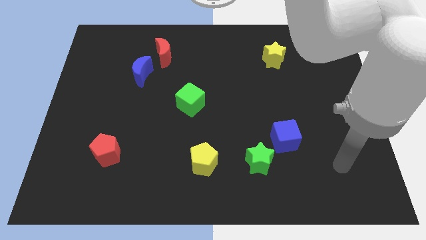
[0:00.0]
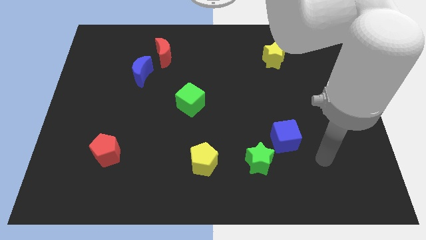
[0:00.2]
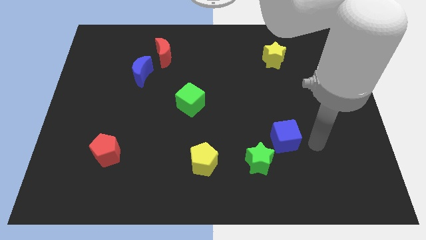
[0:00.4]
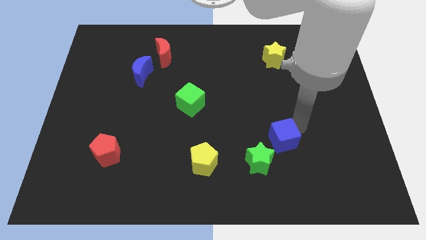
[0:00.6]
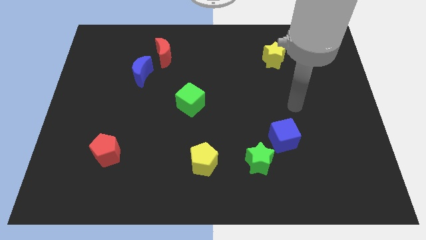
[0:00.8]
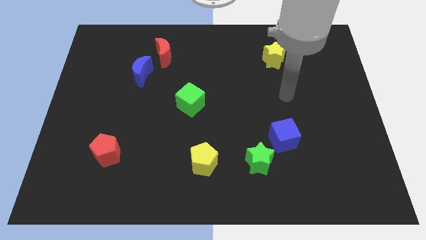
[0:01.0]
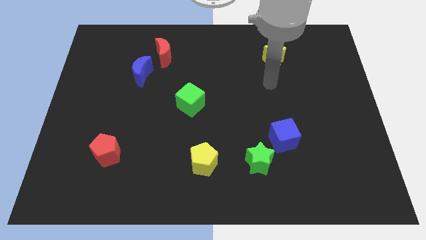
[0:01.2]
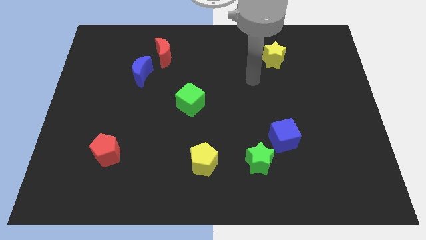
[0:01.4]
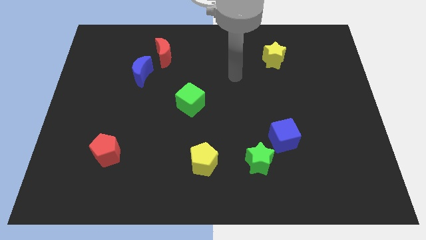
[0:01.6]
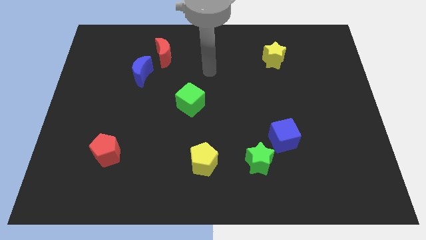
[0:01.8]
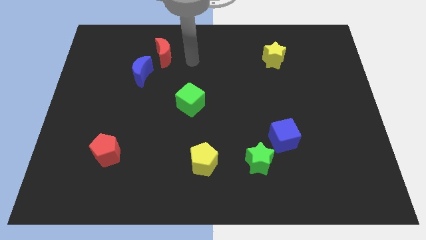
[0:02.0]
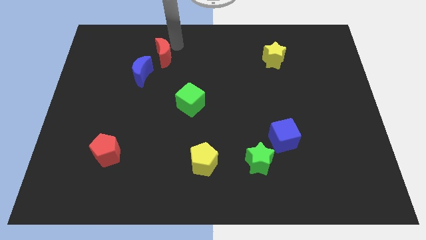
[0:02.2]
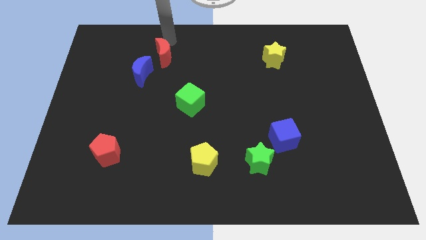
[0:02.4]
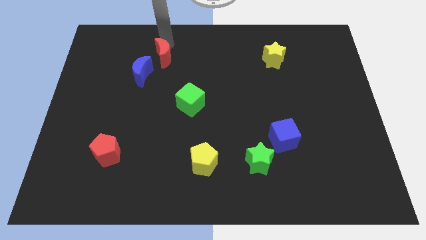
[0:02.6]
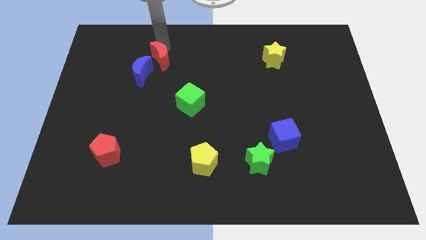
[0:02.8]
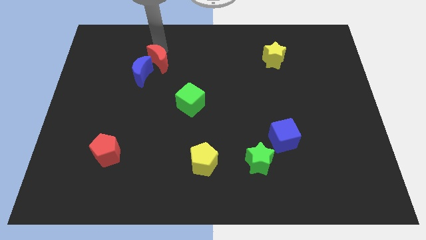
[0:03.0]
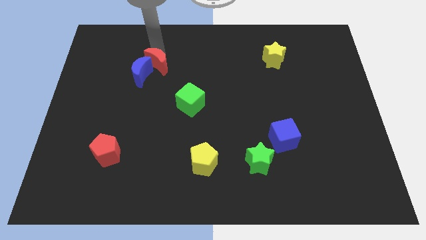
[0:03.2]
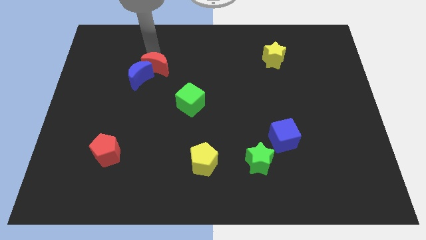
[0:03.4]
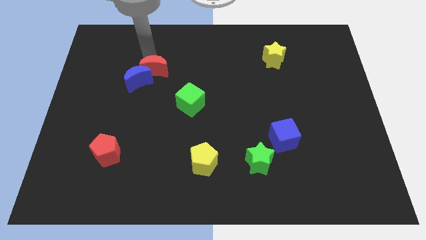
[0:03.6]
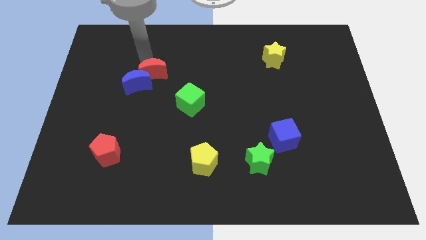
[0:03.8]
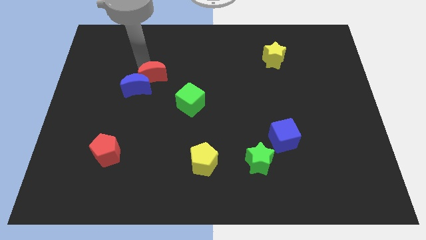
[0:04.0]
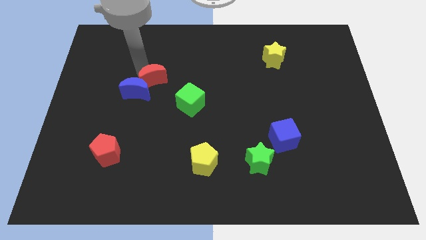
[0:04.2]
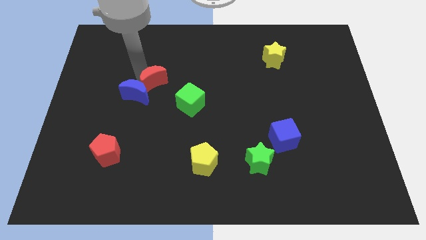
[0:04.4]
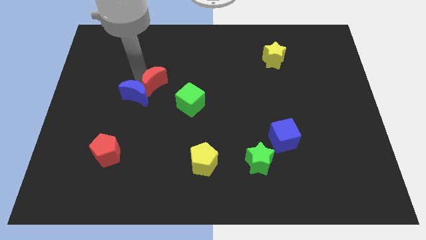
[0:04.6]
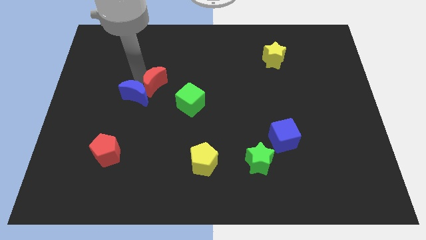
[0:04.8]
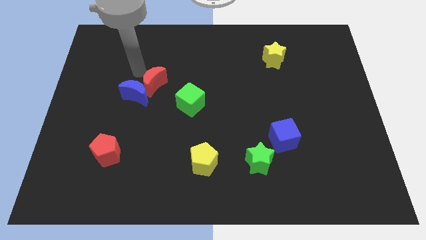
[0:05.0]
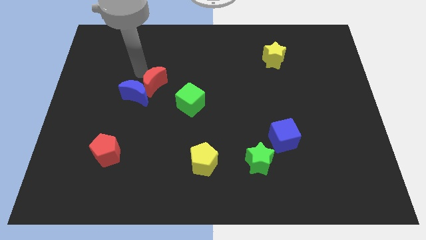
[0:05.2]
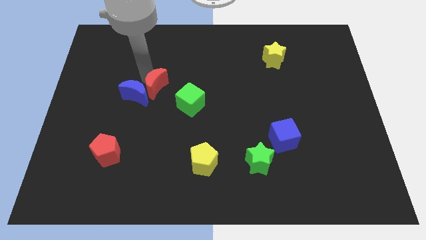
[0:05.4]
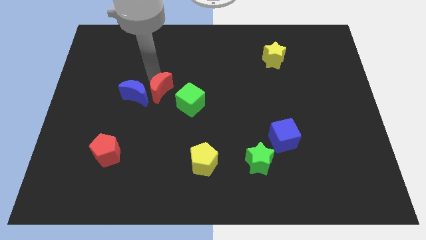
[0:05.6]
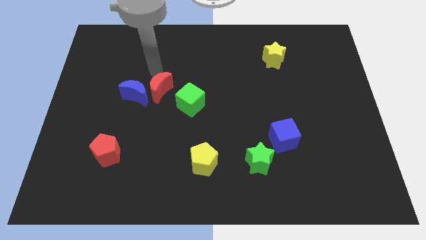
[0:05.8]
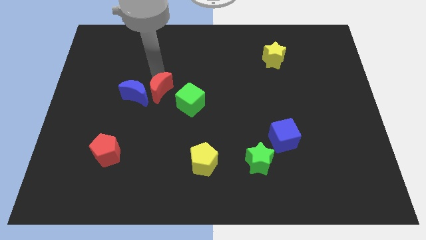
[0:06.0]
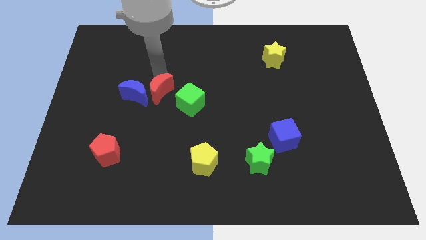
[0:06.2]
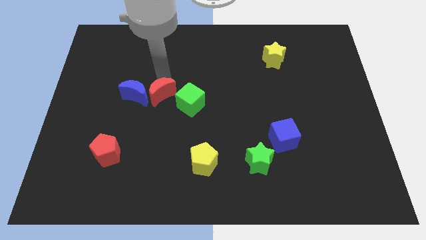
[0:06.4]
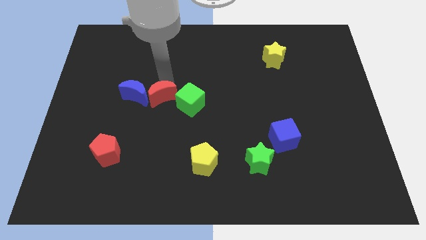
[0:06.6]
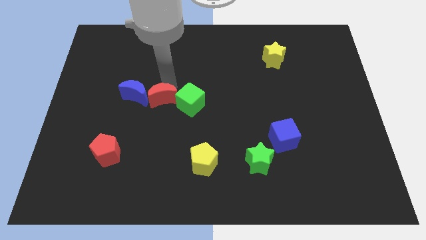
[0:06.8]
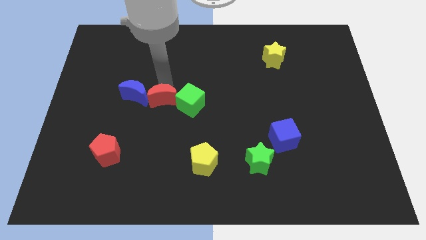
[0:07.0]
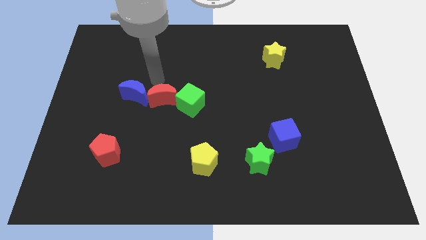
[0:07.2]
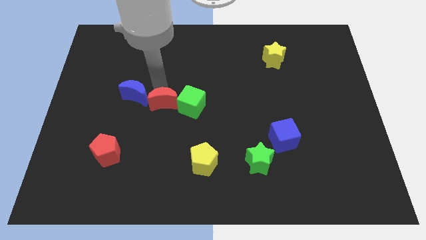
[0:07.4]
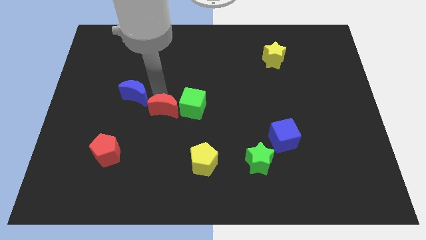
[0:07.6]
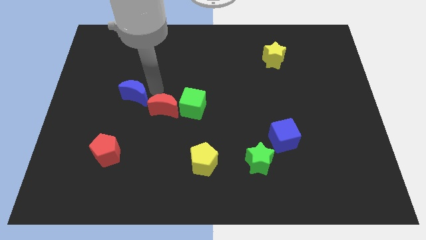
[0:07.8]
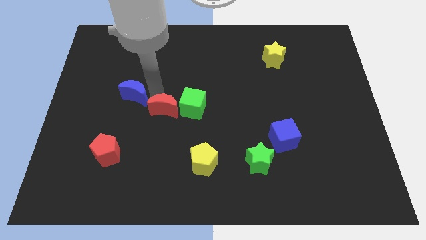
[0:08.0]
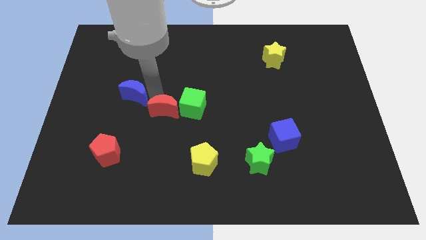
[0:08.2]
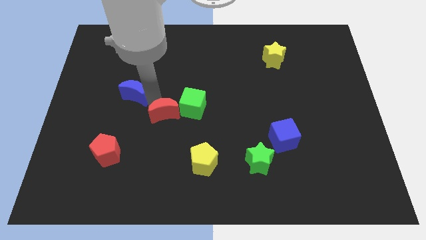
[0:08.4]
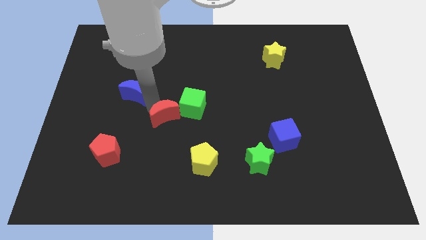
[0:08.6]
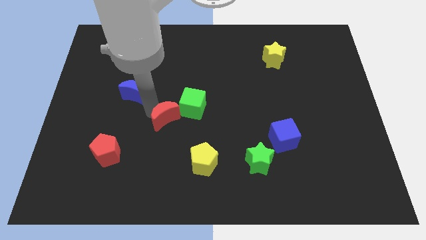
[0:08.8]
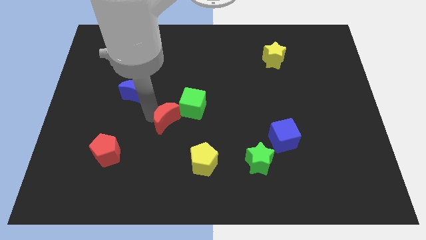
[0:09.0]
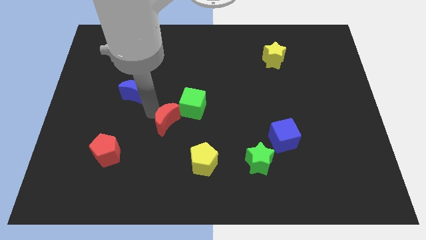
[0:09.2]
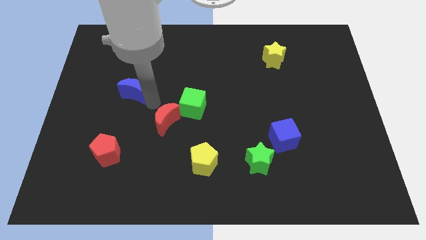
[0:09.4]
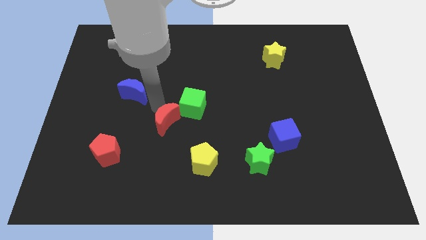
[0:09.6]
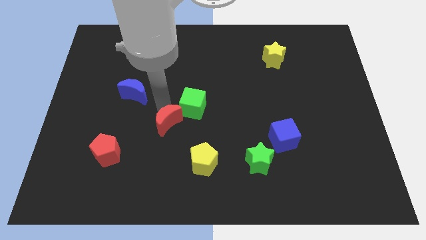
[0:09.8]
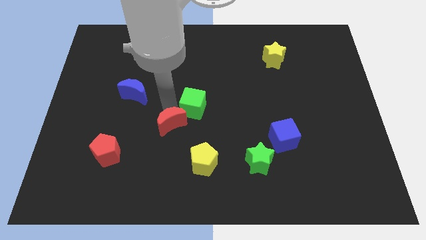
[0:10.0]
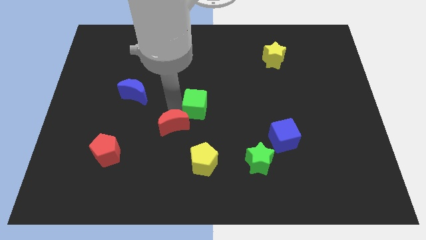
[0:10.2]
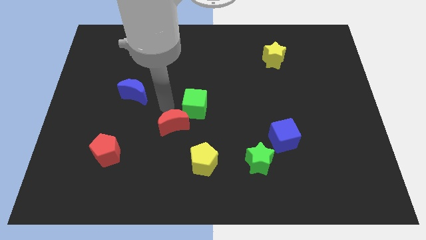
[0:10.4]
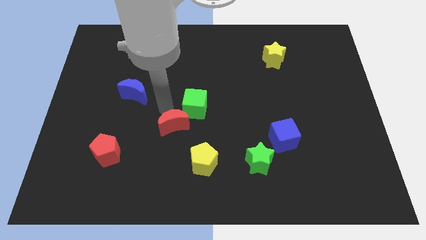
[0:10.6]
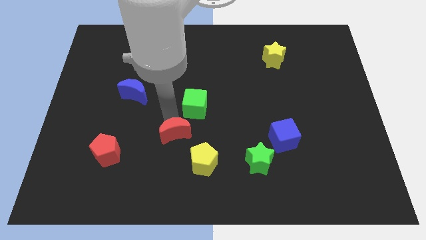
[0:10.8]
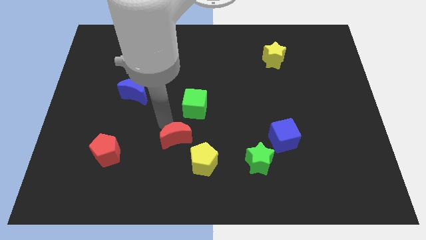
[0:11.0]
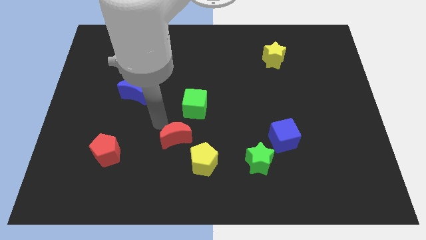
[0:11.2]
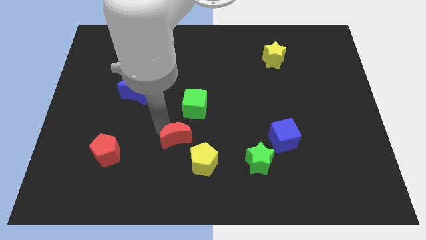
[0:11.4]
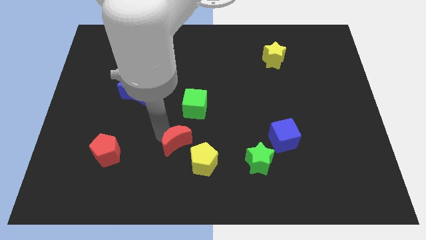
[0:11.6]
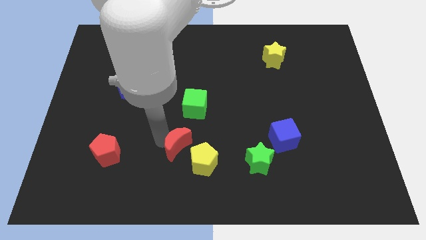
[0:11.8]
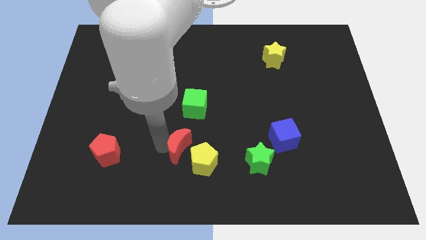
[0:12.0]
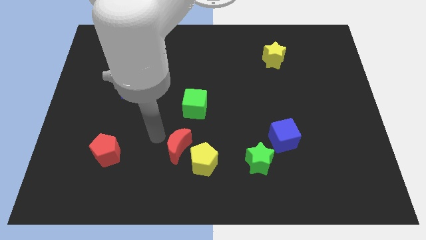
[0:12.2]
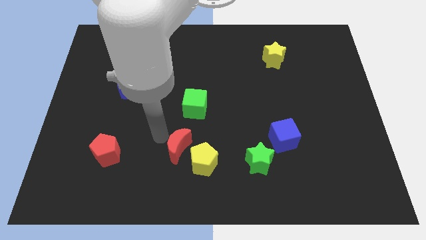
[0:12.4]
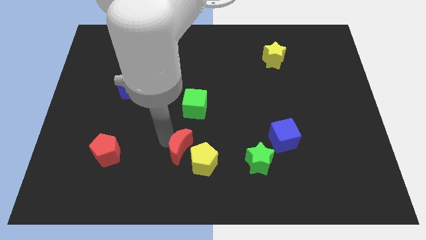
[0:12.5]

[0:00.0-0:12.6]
put the red moon close to the yellow pentagon

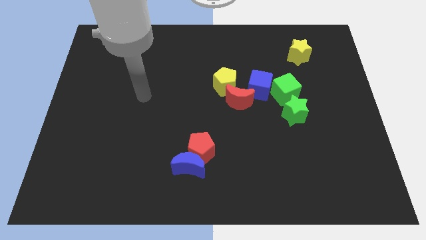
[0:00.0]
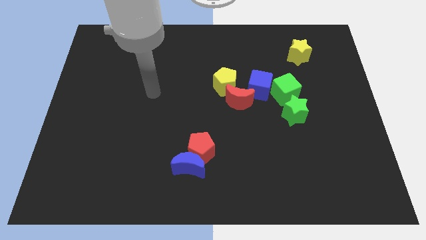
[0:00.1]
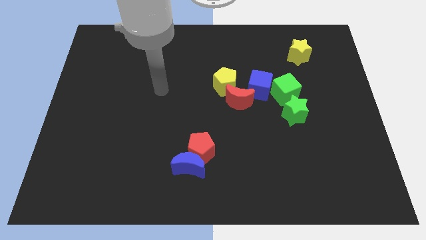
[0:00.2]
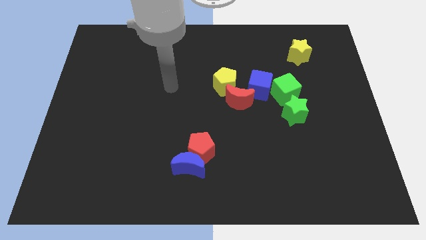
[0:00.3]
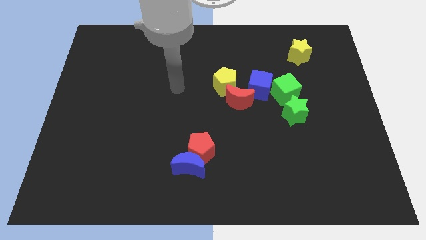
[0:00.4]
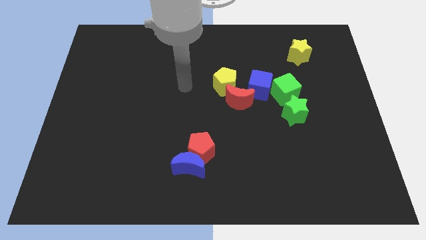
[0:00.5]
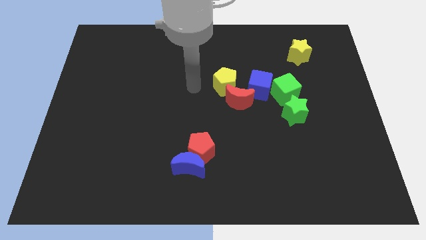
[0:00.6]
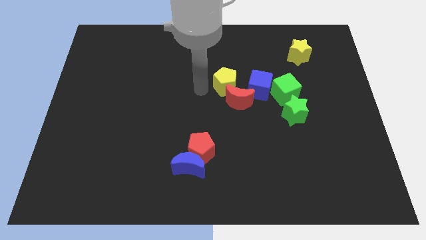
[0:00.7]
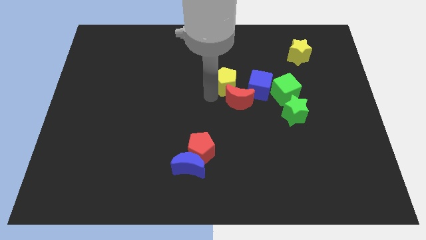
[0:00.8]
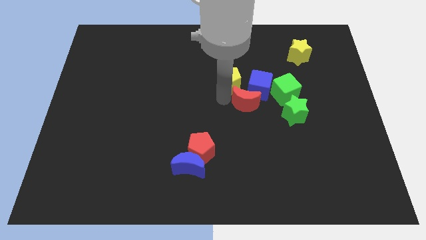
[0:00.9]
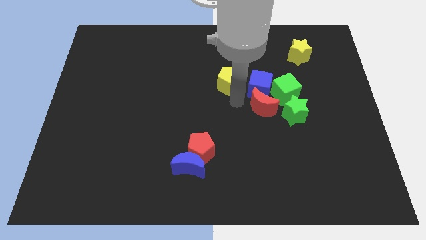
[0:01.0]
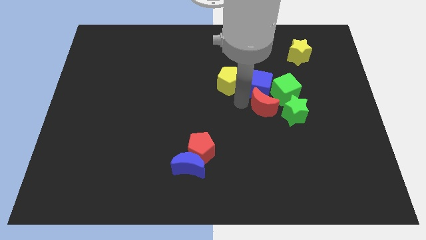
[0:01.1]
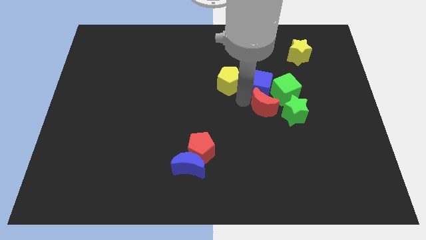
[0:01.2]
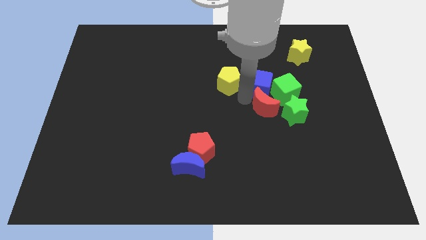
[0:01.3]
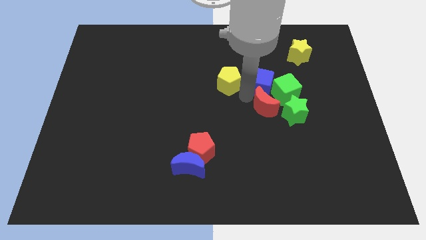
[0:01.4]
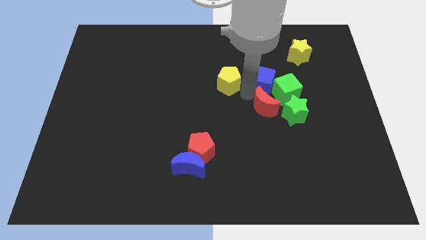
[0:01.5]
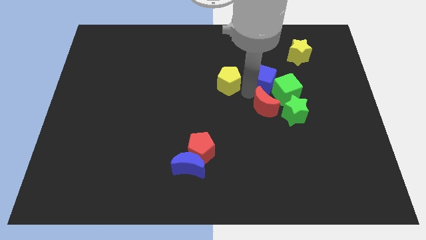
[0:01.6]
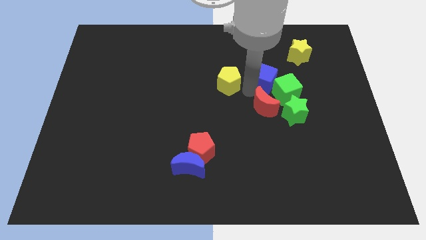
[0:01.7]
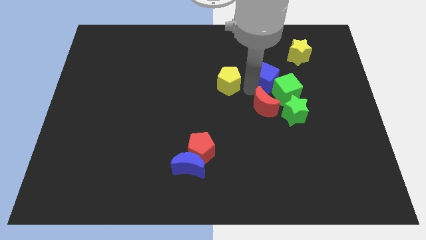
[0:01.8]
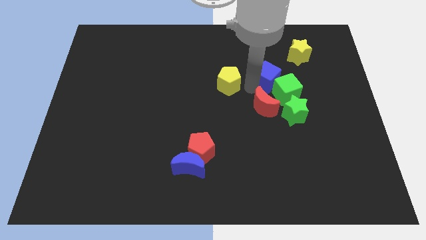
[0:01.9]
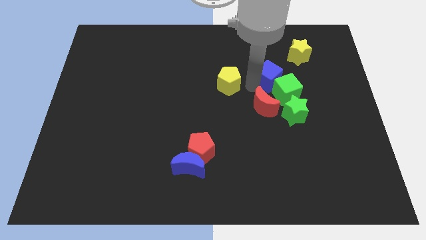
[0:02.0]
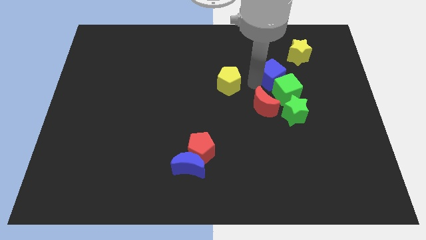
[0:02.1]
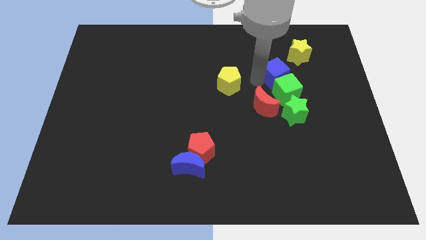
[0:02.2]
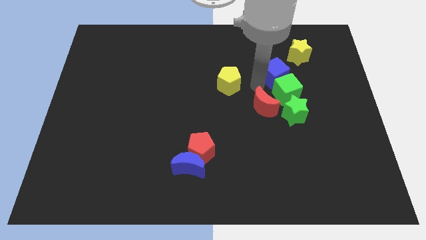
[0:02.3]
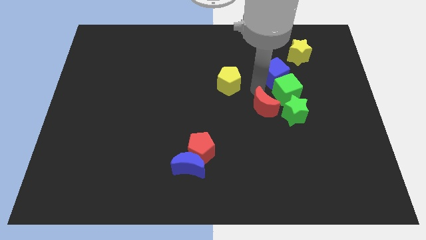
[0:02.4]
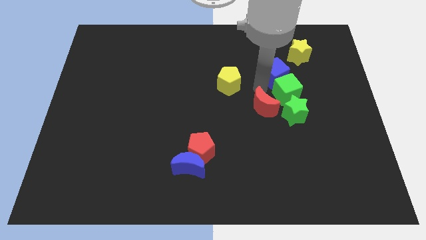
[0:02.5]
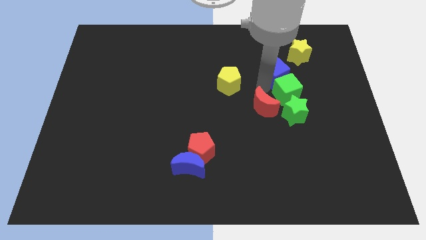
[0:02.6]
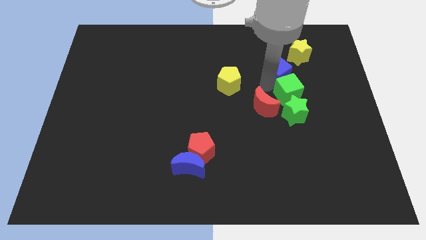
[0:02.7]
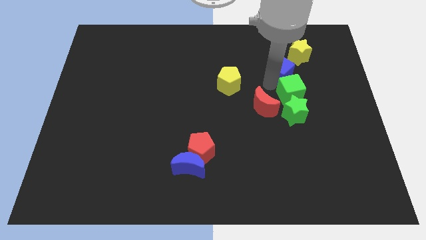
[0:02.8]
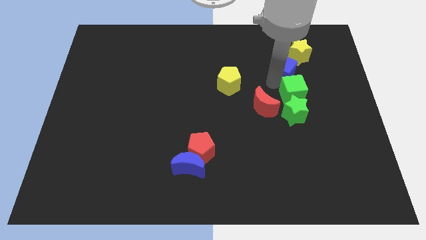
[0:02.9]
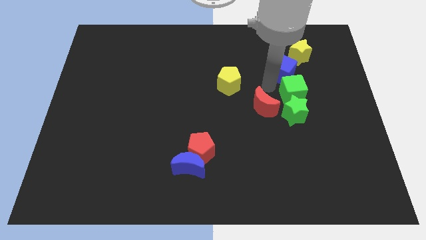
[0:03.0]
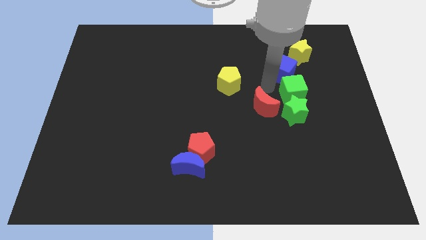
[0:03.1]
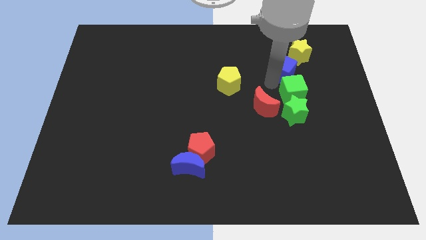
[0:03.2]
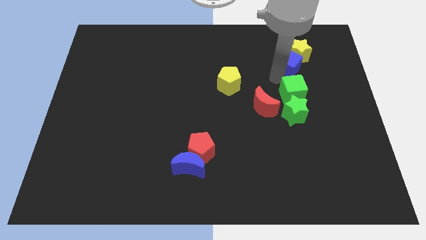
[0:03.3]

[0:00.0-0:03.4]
slide the blue cube to the yellow star
